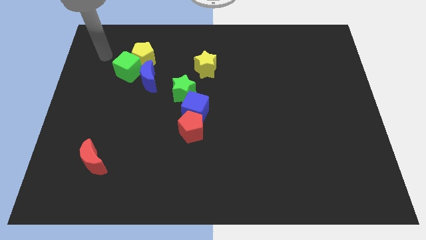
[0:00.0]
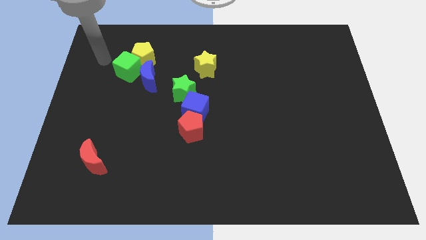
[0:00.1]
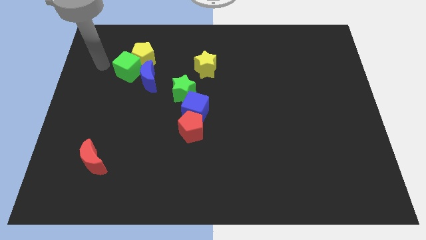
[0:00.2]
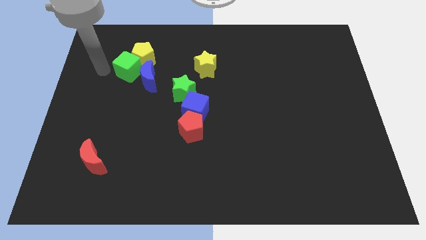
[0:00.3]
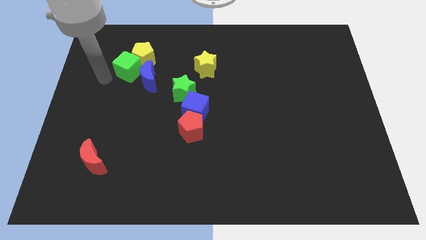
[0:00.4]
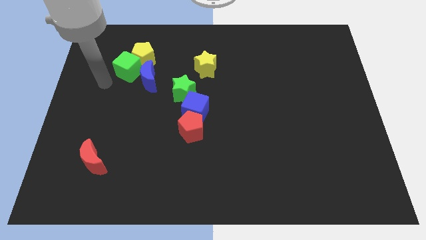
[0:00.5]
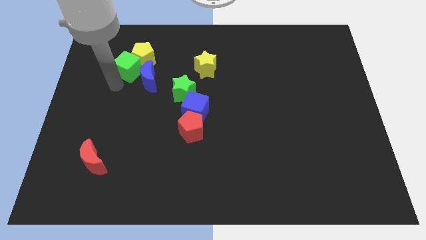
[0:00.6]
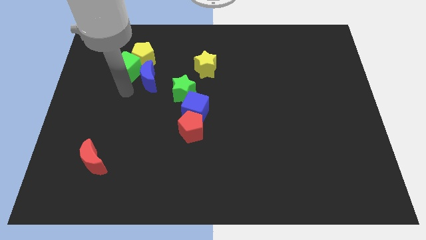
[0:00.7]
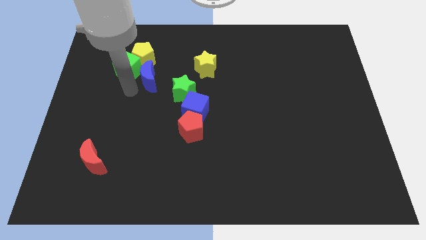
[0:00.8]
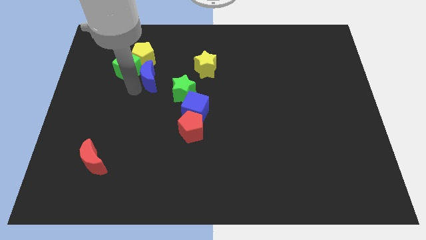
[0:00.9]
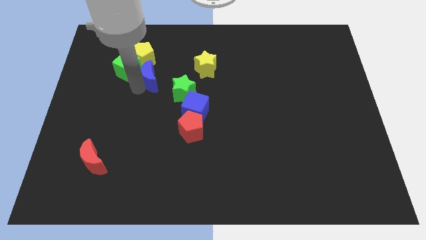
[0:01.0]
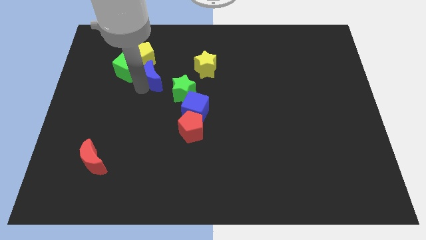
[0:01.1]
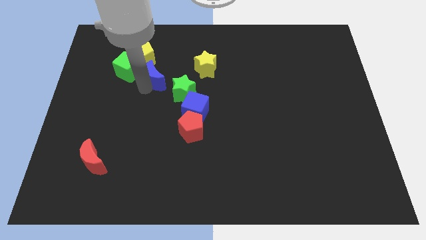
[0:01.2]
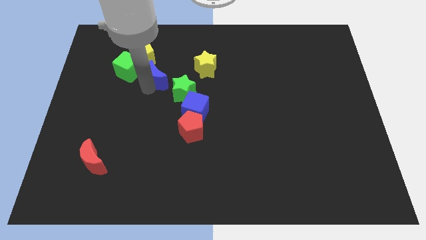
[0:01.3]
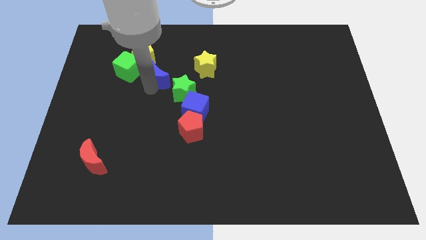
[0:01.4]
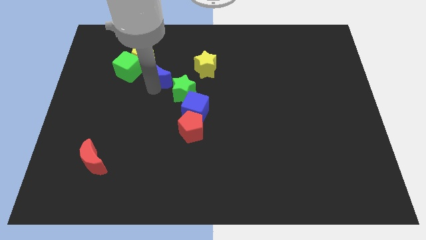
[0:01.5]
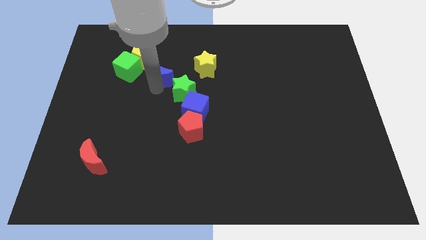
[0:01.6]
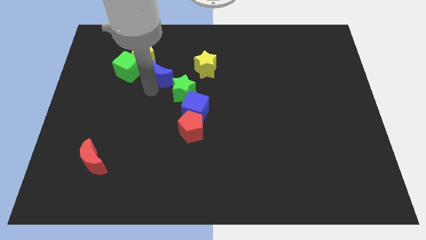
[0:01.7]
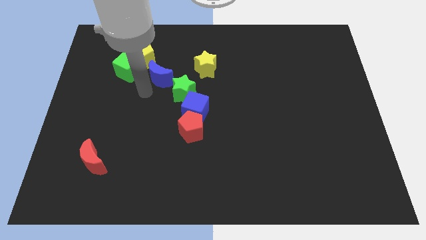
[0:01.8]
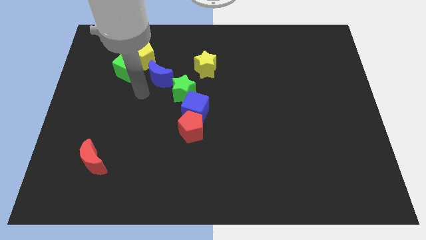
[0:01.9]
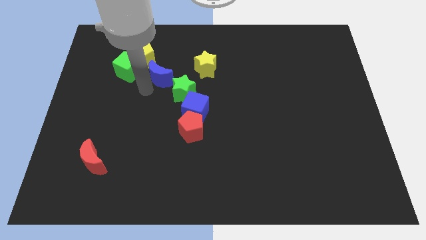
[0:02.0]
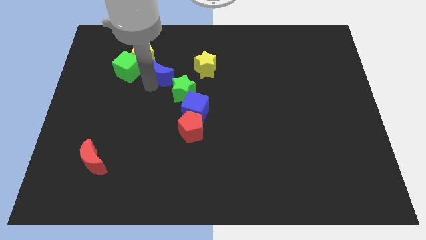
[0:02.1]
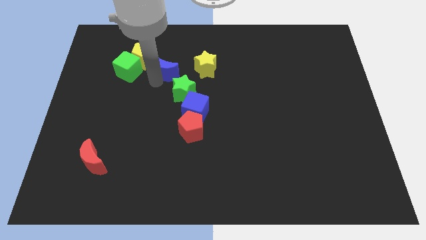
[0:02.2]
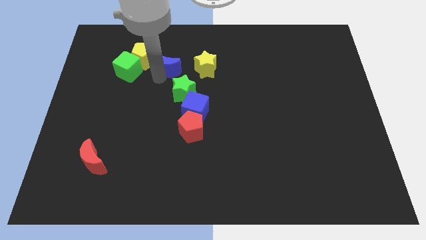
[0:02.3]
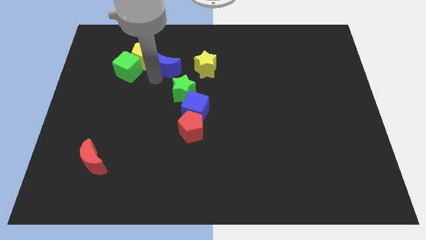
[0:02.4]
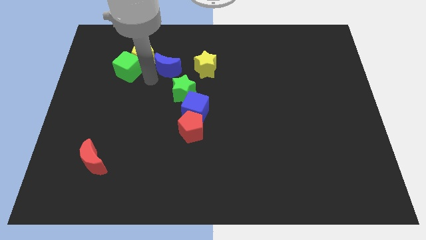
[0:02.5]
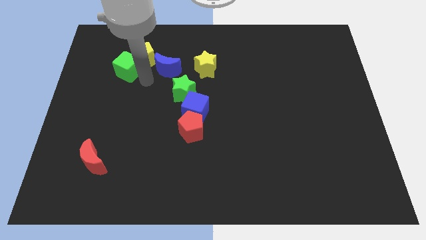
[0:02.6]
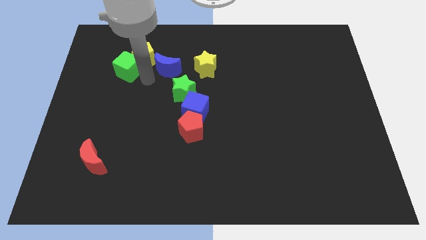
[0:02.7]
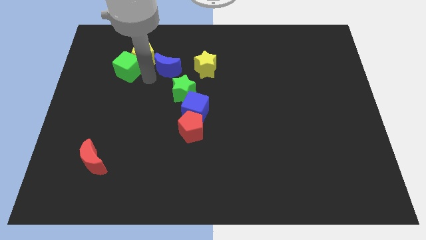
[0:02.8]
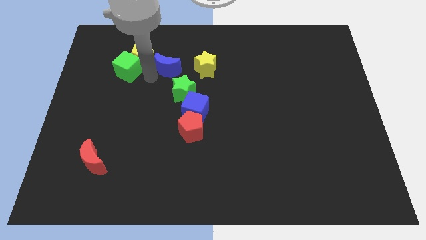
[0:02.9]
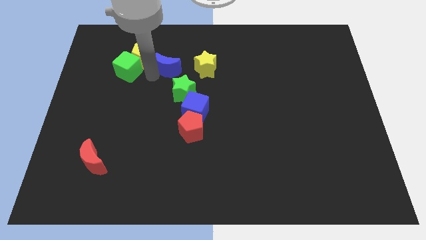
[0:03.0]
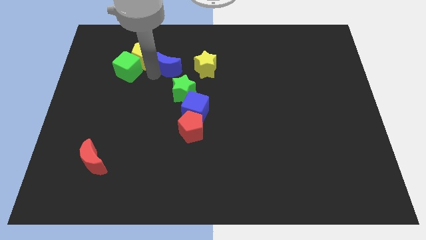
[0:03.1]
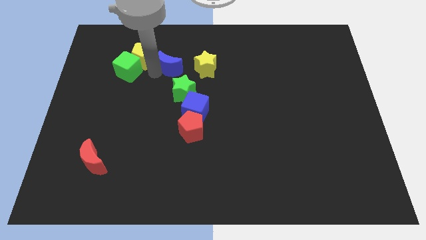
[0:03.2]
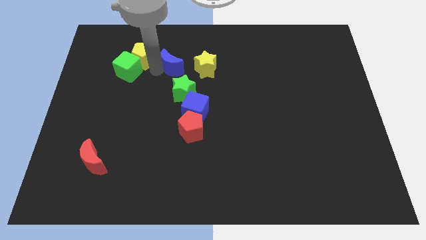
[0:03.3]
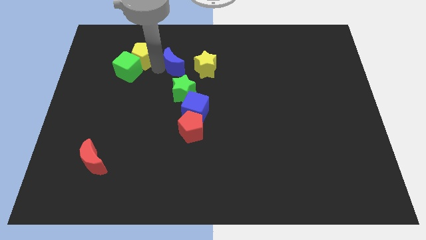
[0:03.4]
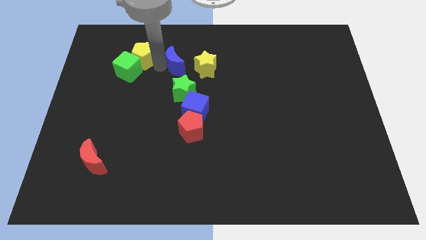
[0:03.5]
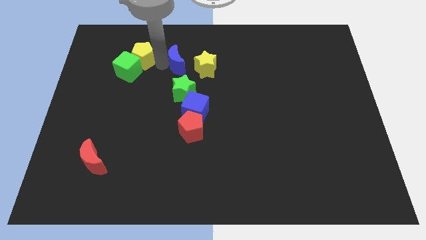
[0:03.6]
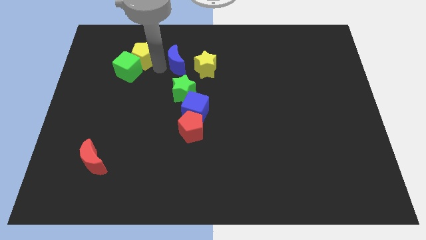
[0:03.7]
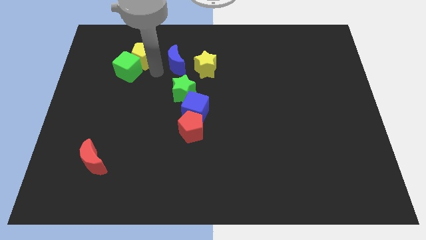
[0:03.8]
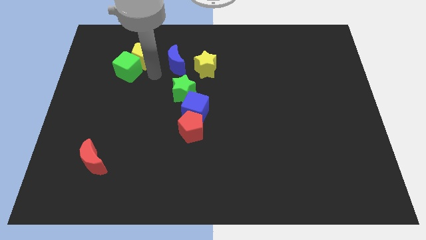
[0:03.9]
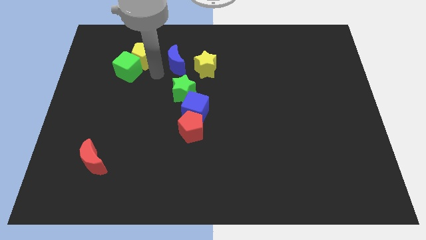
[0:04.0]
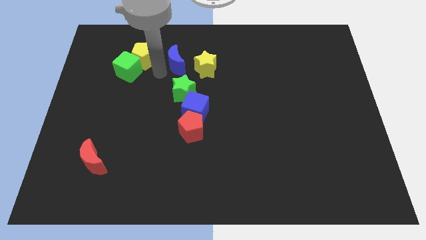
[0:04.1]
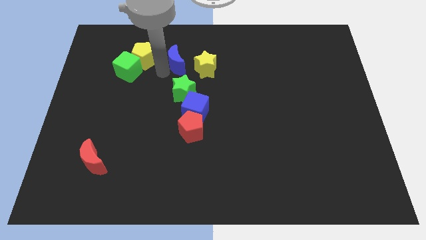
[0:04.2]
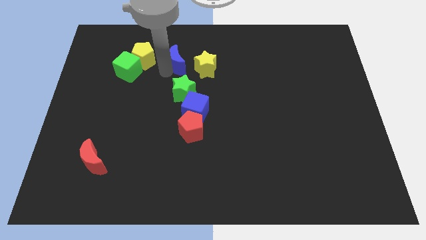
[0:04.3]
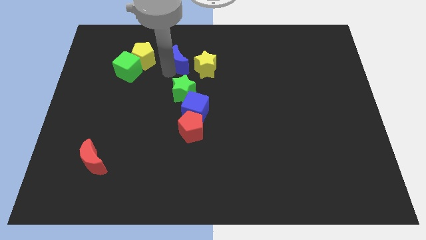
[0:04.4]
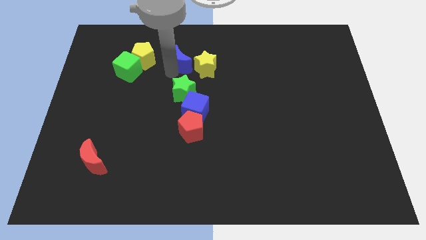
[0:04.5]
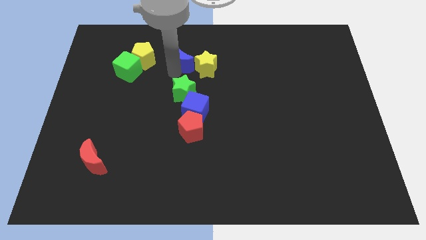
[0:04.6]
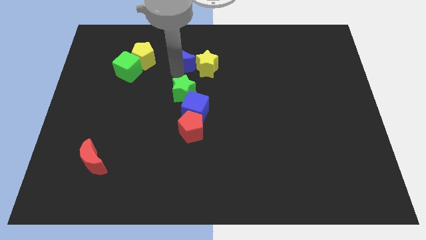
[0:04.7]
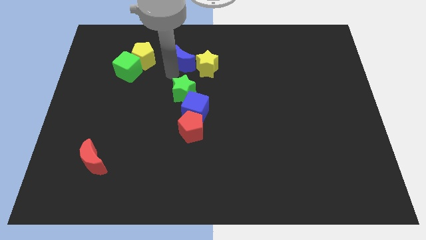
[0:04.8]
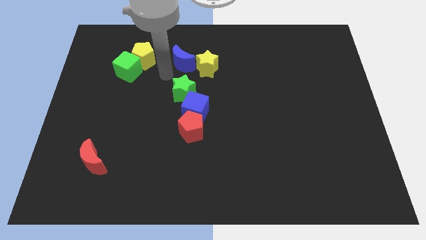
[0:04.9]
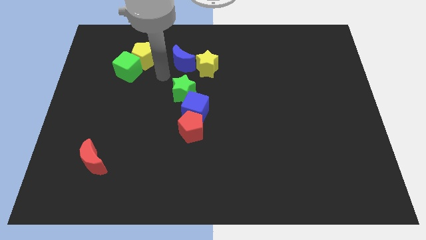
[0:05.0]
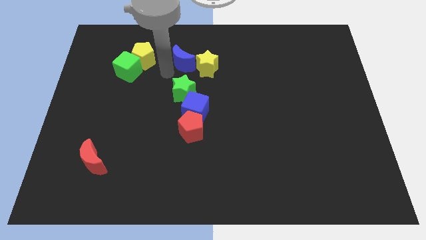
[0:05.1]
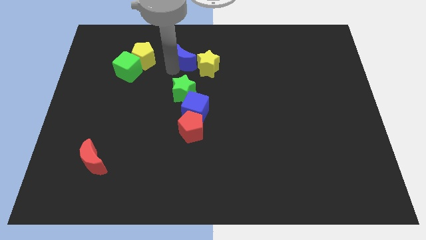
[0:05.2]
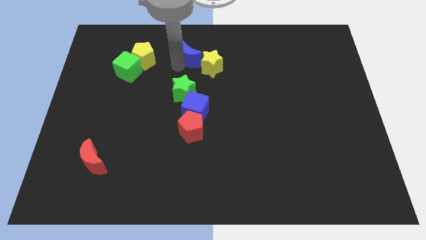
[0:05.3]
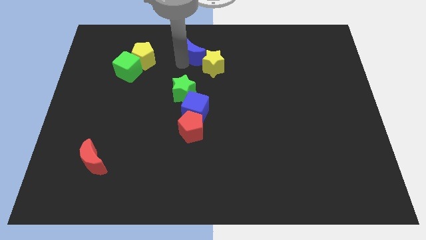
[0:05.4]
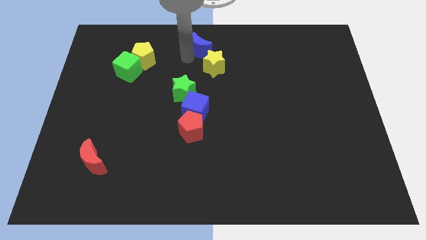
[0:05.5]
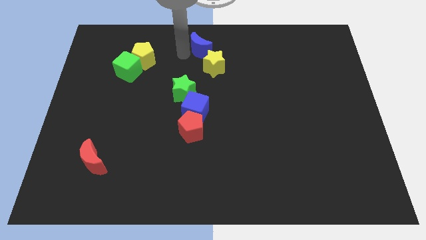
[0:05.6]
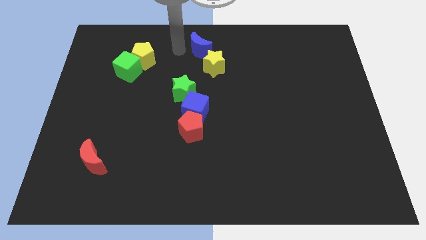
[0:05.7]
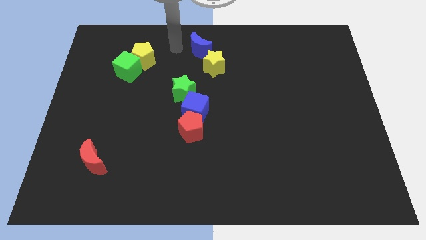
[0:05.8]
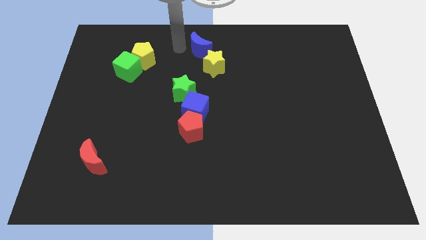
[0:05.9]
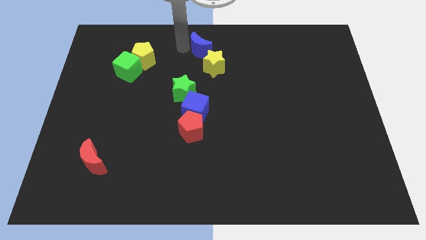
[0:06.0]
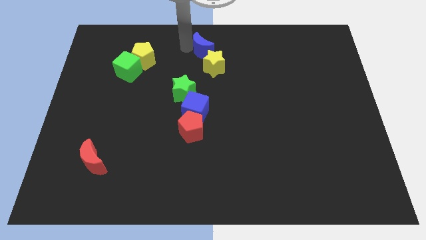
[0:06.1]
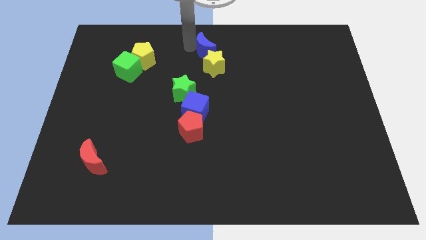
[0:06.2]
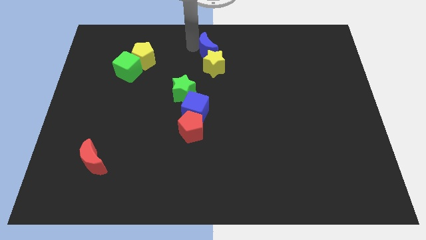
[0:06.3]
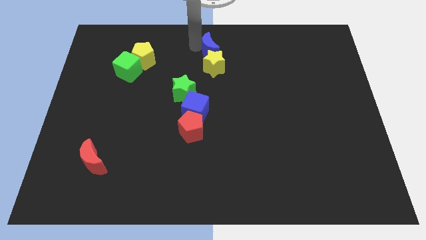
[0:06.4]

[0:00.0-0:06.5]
put the blue moon diagonally up and to the right of the yellow star

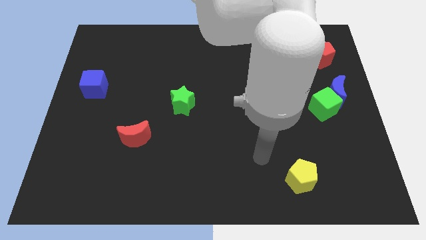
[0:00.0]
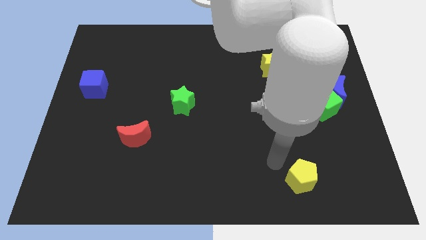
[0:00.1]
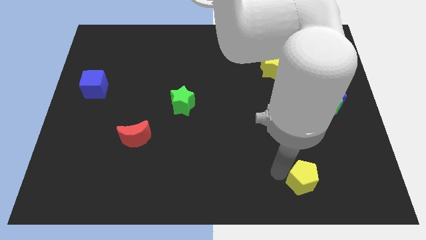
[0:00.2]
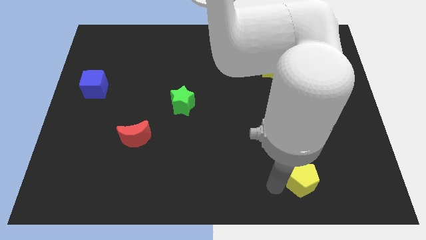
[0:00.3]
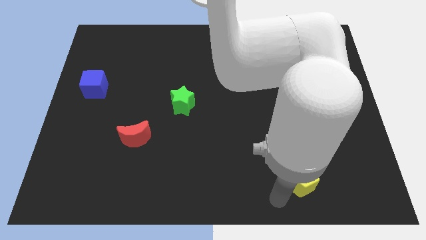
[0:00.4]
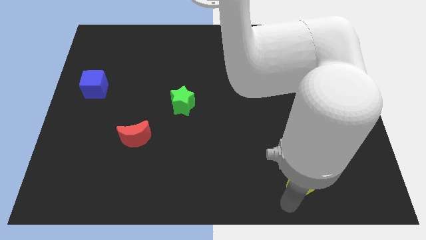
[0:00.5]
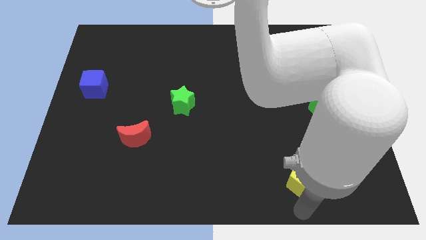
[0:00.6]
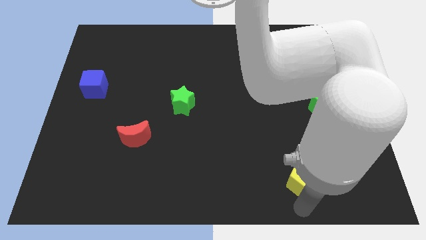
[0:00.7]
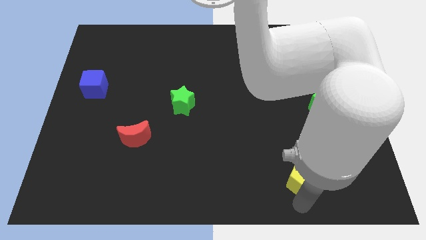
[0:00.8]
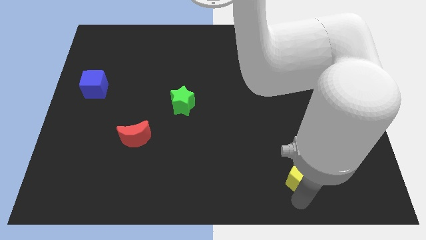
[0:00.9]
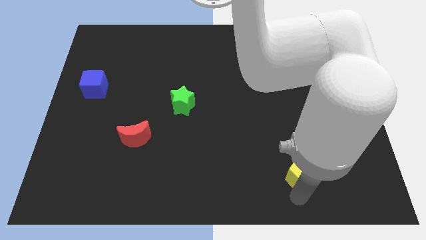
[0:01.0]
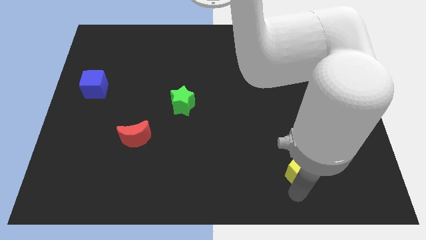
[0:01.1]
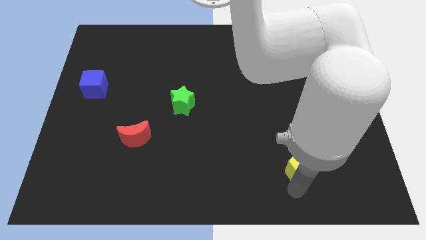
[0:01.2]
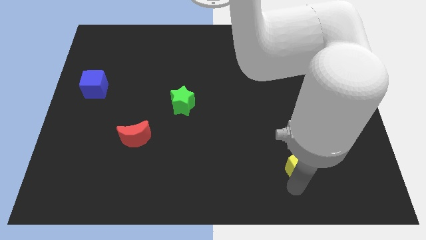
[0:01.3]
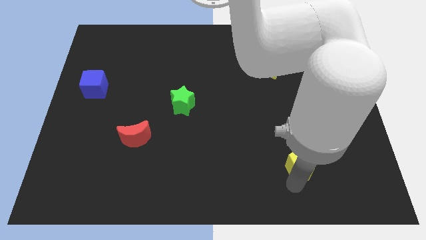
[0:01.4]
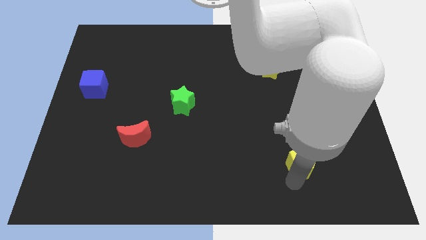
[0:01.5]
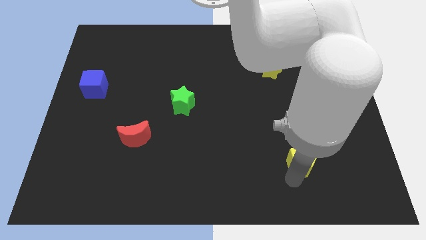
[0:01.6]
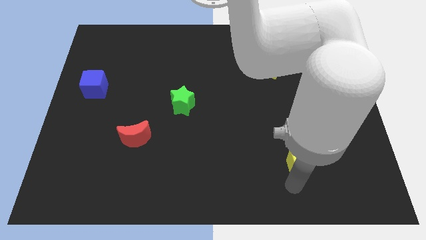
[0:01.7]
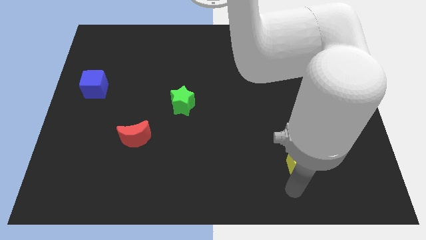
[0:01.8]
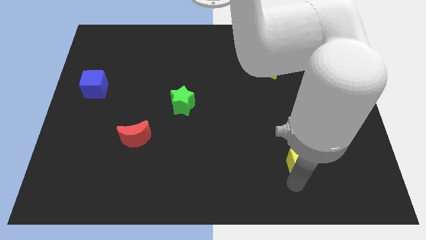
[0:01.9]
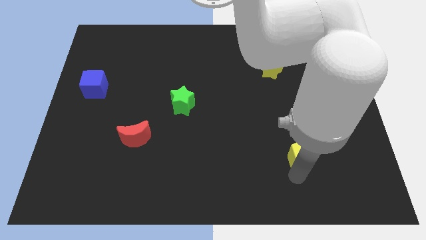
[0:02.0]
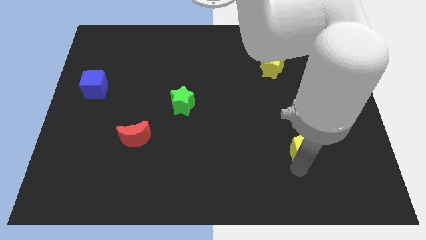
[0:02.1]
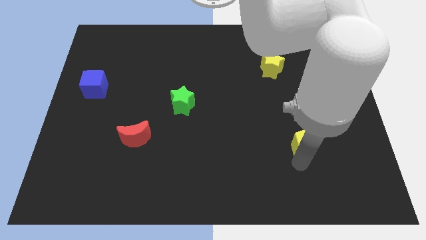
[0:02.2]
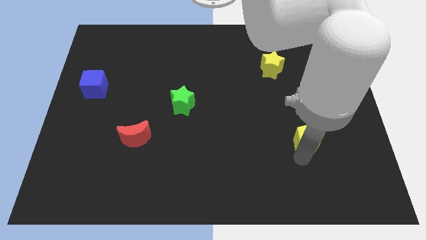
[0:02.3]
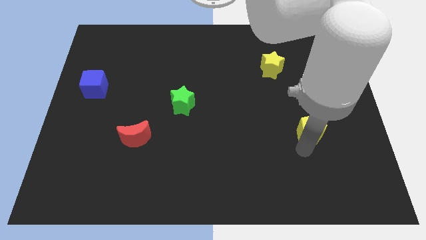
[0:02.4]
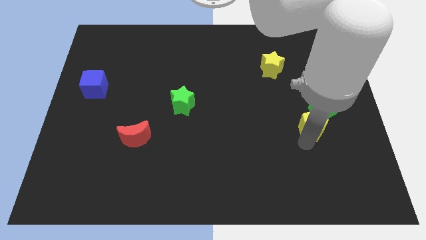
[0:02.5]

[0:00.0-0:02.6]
put the yellow pentagon to the bottom left of the blue moon
